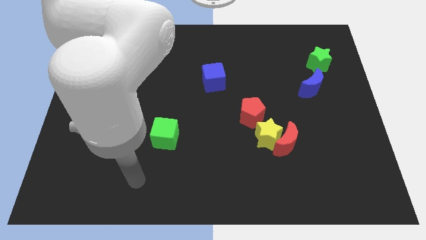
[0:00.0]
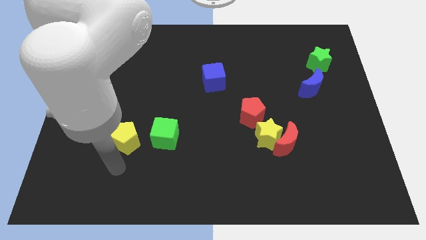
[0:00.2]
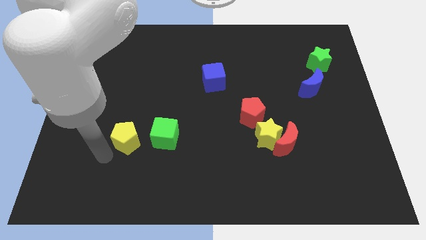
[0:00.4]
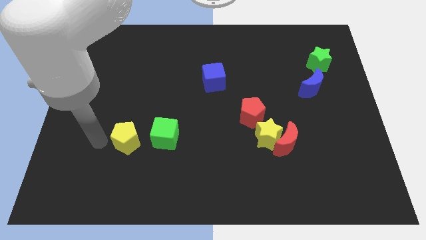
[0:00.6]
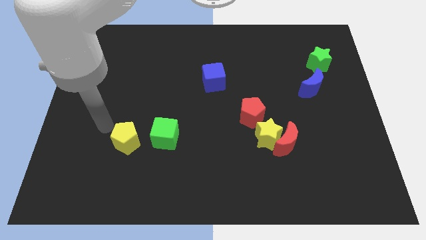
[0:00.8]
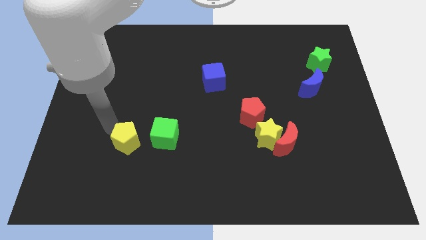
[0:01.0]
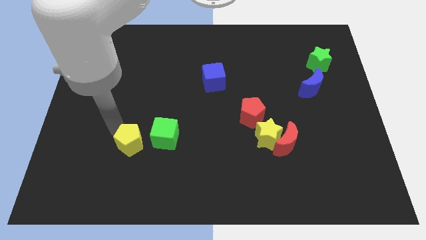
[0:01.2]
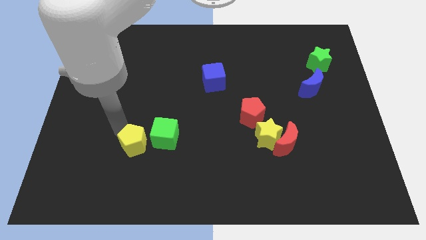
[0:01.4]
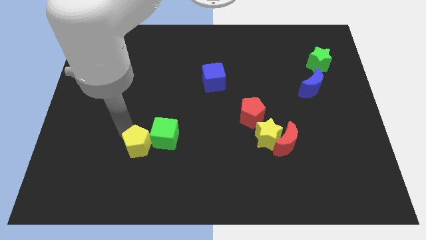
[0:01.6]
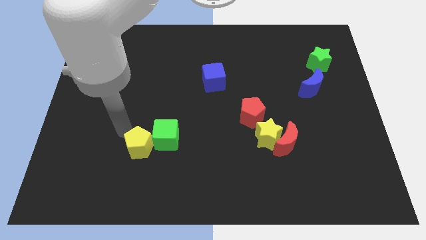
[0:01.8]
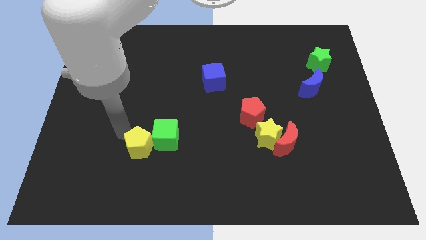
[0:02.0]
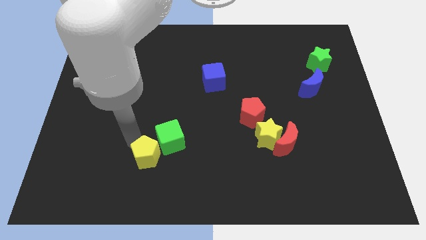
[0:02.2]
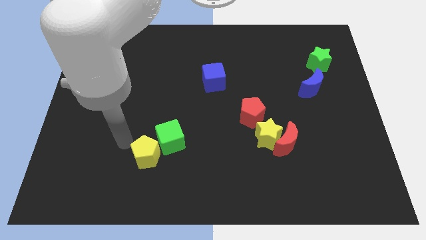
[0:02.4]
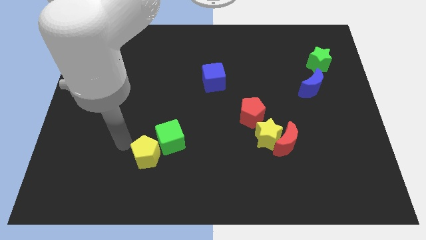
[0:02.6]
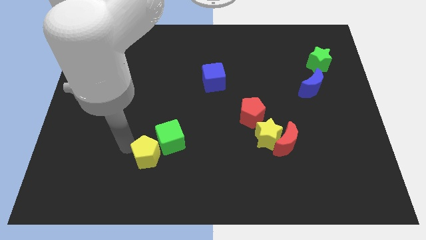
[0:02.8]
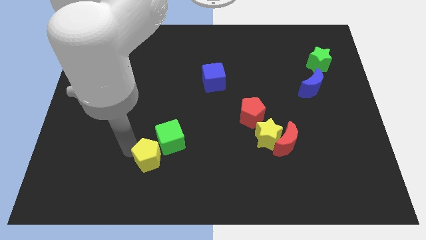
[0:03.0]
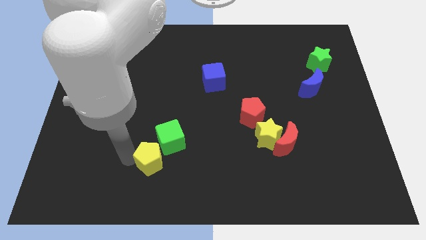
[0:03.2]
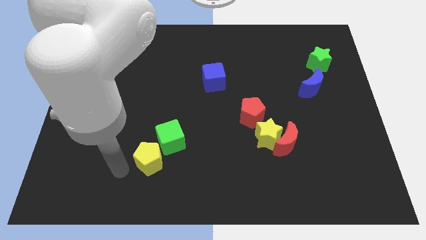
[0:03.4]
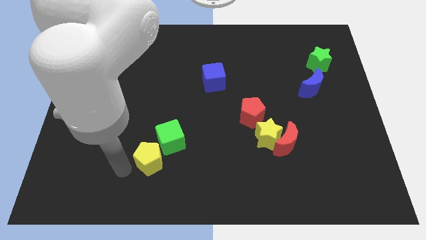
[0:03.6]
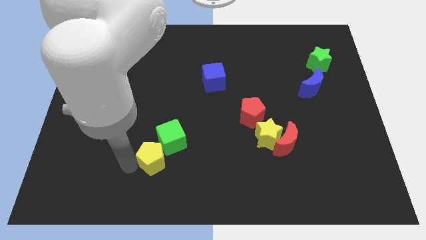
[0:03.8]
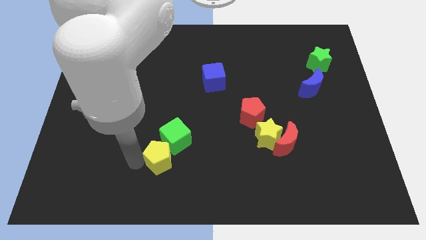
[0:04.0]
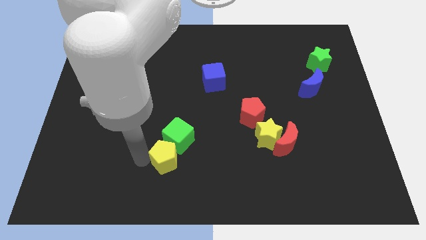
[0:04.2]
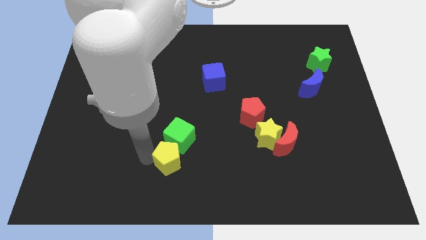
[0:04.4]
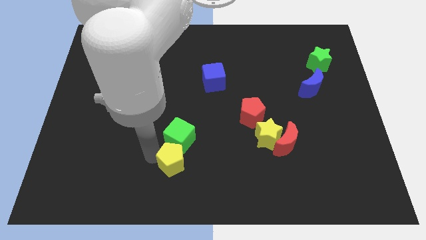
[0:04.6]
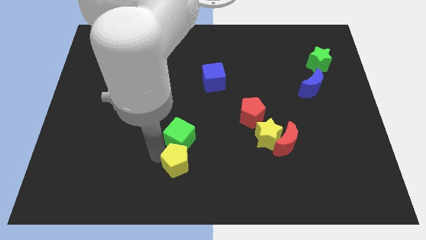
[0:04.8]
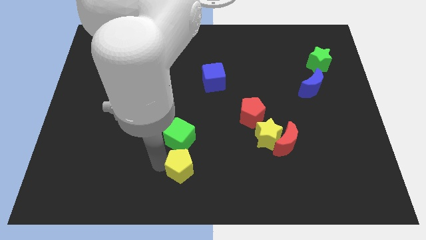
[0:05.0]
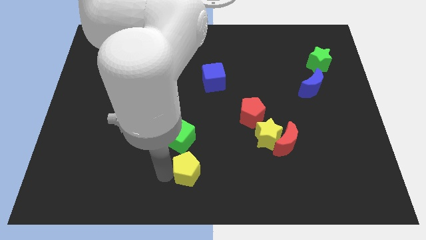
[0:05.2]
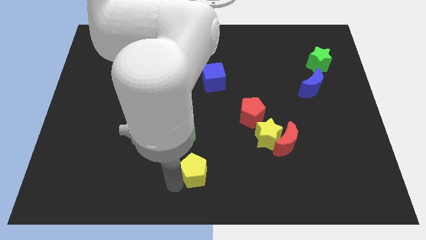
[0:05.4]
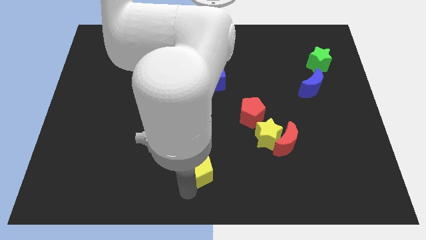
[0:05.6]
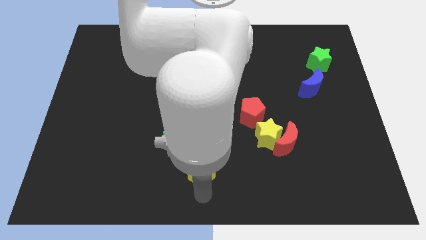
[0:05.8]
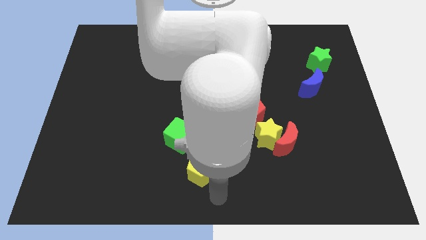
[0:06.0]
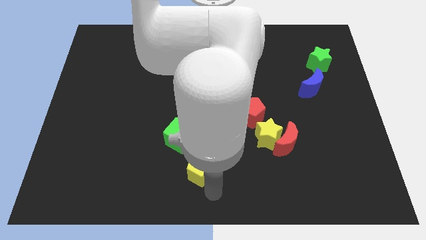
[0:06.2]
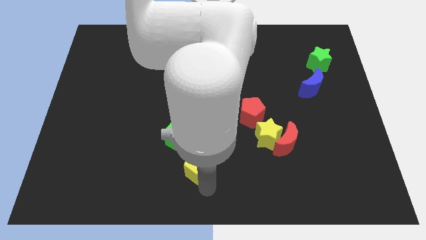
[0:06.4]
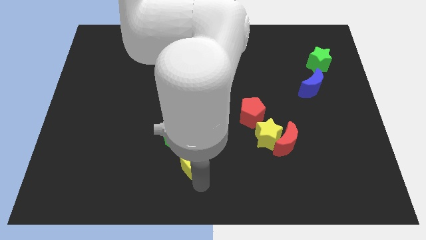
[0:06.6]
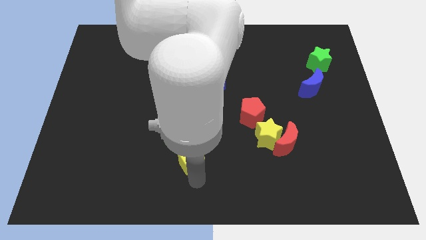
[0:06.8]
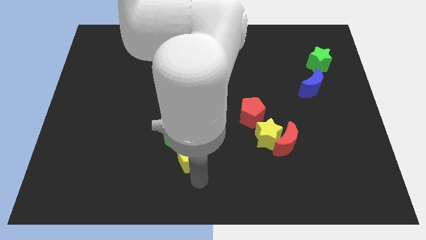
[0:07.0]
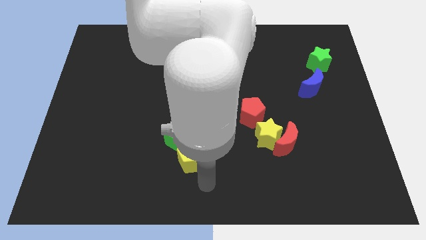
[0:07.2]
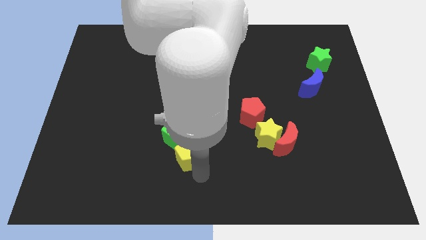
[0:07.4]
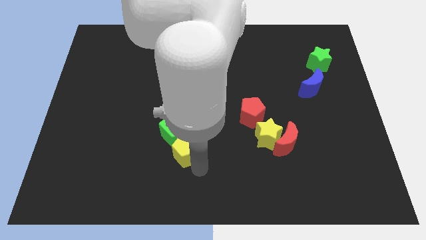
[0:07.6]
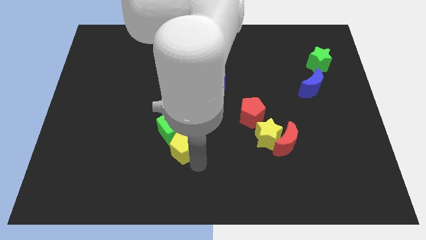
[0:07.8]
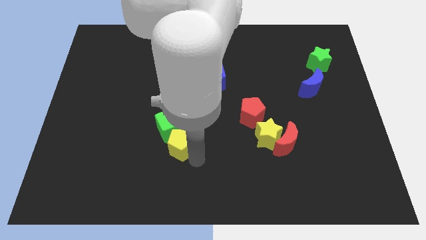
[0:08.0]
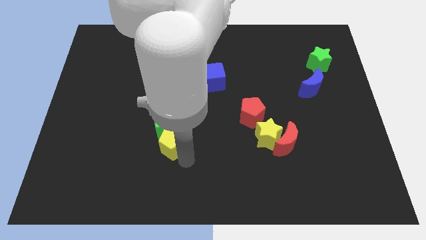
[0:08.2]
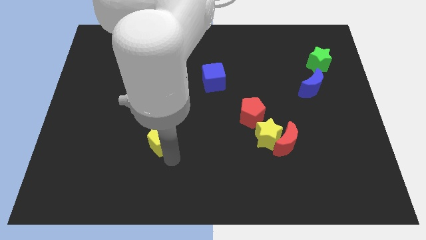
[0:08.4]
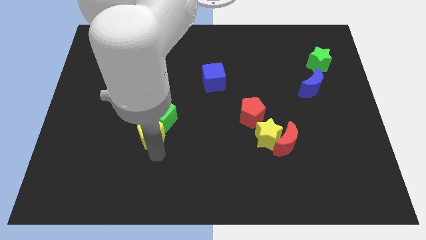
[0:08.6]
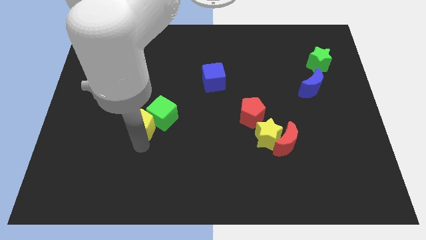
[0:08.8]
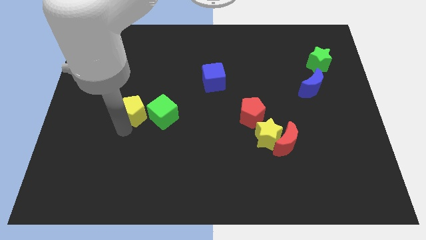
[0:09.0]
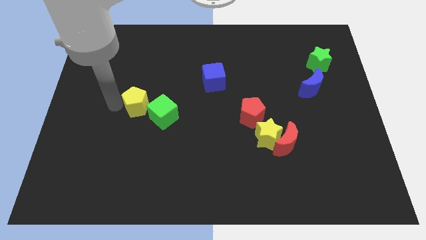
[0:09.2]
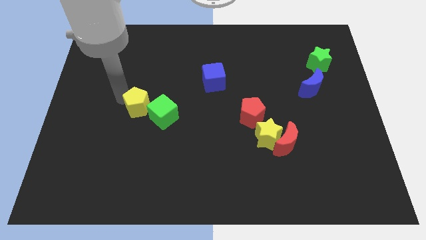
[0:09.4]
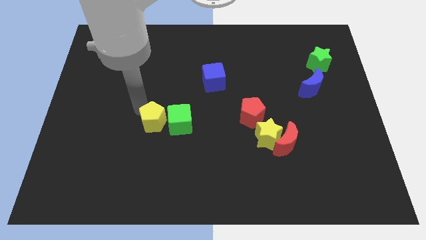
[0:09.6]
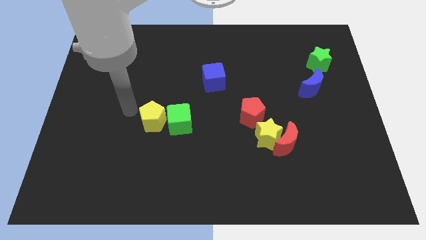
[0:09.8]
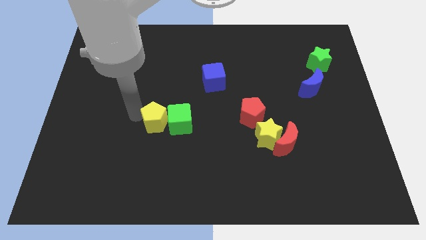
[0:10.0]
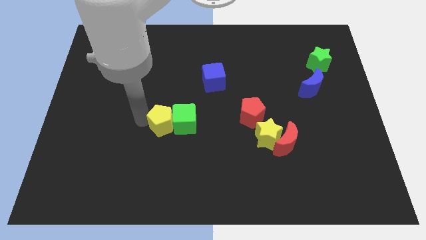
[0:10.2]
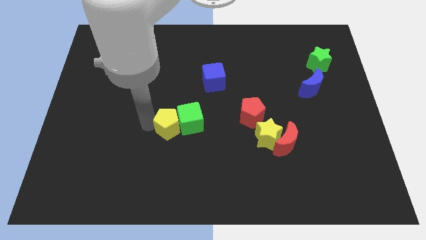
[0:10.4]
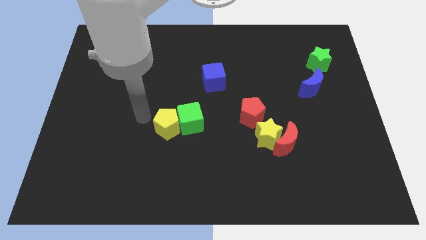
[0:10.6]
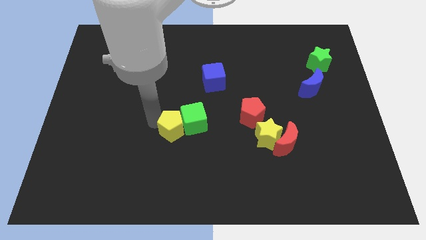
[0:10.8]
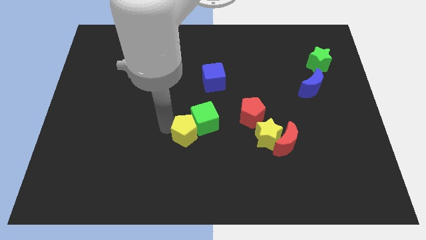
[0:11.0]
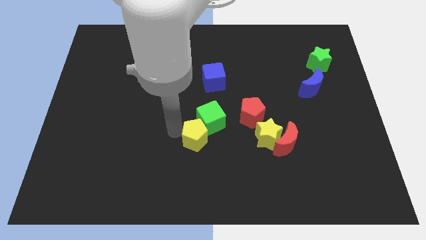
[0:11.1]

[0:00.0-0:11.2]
slide the yellow pentagon to the left of the yellow star

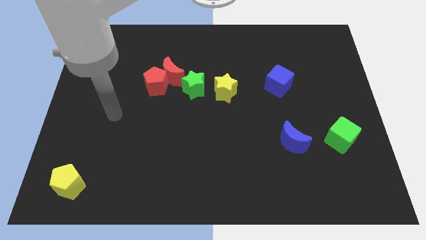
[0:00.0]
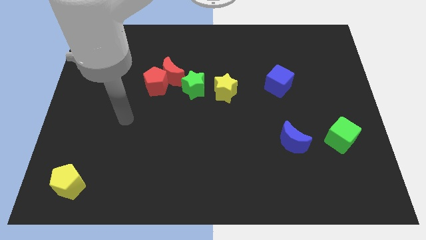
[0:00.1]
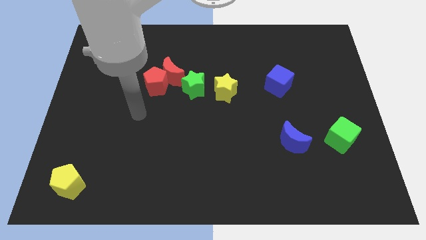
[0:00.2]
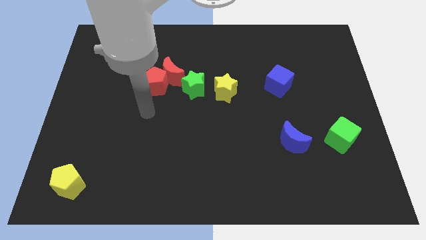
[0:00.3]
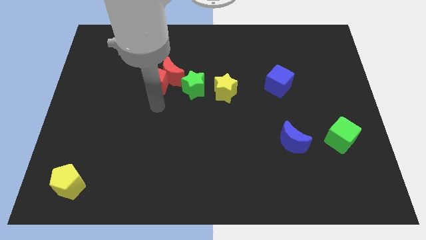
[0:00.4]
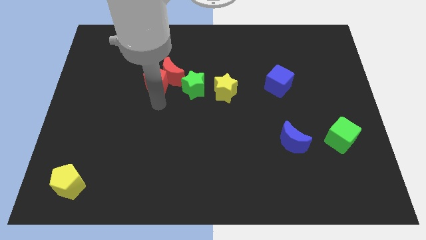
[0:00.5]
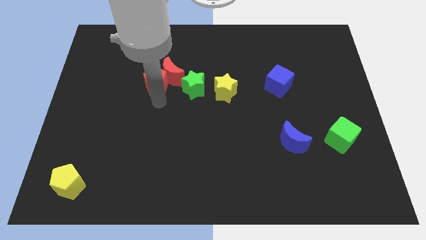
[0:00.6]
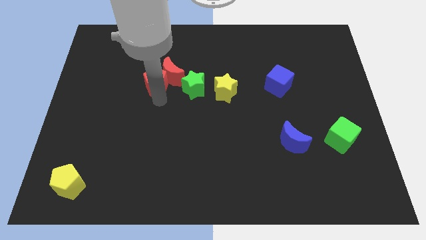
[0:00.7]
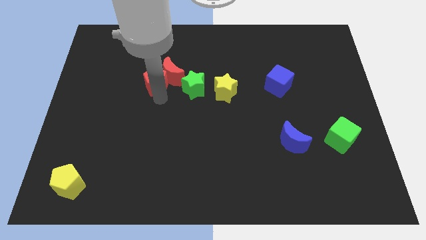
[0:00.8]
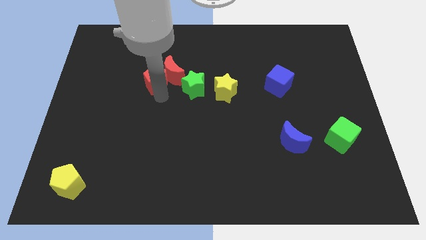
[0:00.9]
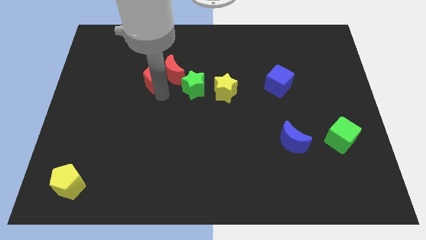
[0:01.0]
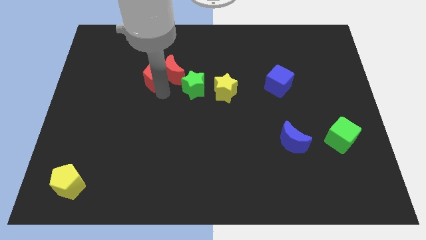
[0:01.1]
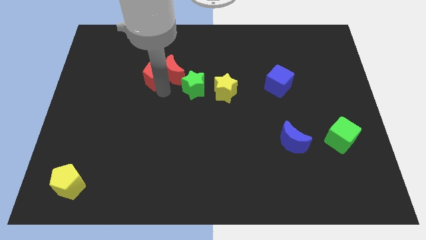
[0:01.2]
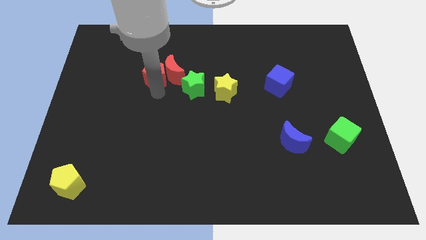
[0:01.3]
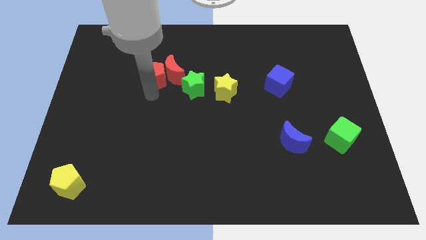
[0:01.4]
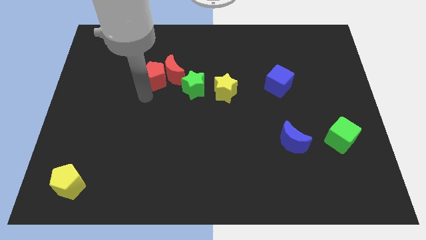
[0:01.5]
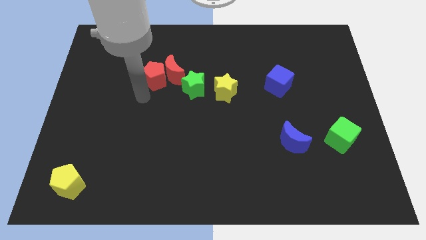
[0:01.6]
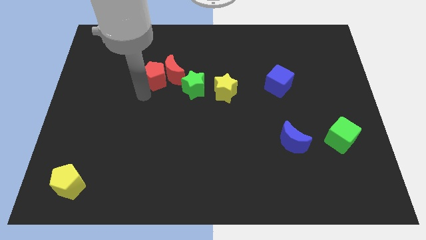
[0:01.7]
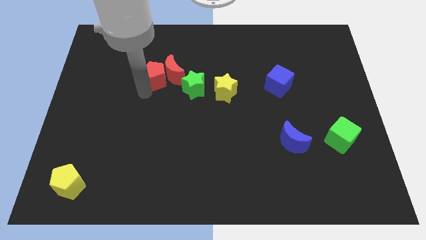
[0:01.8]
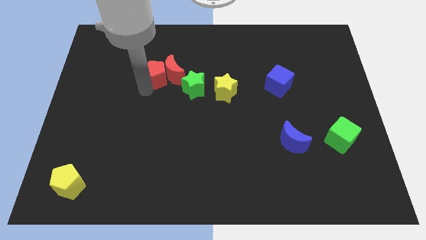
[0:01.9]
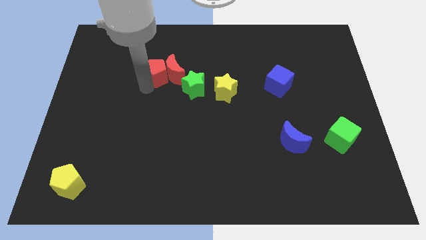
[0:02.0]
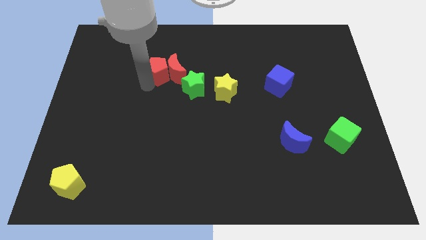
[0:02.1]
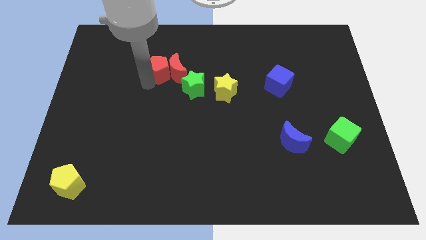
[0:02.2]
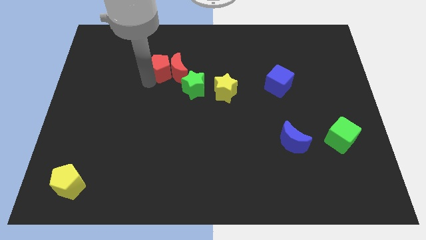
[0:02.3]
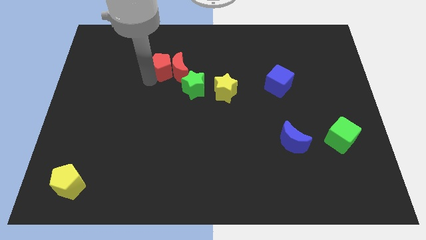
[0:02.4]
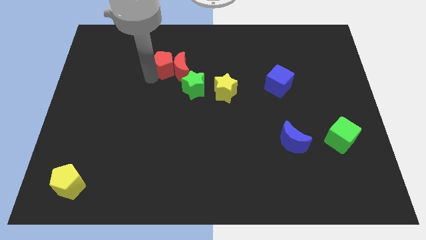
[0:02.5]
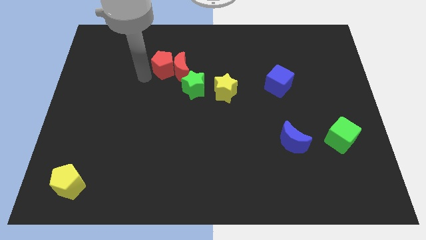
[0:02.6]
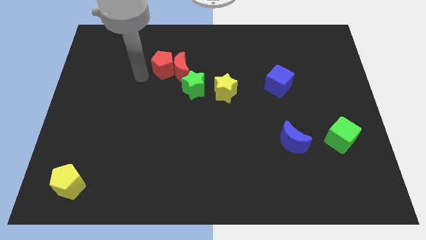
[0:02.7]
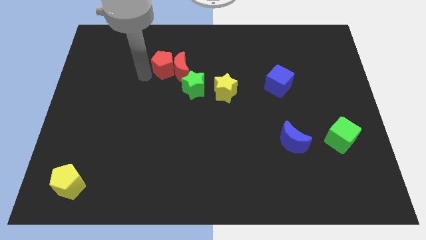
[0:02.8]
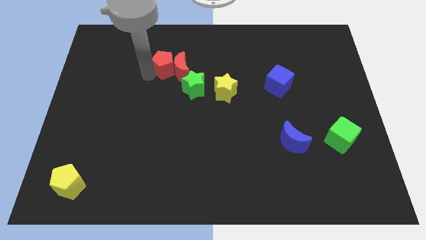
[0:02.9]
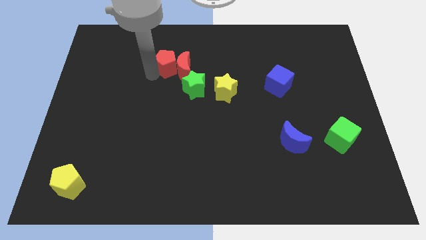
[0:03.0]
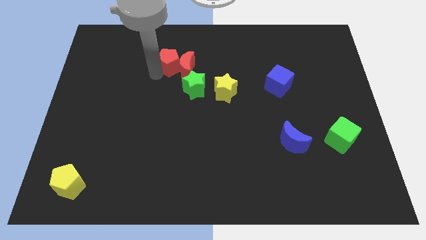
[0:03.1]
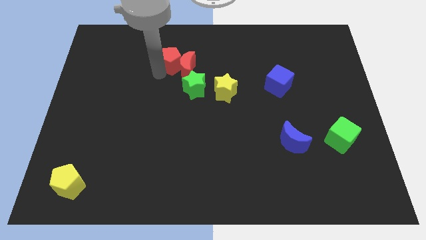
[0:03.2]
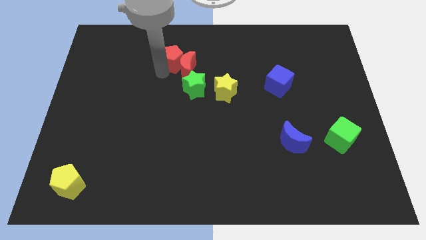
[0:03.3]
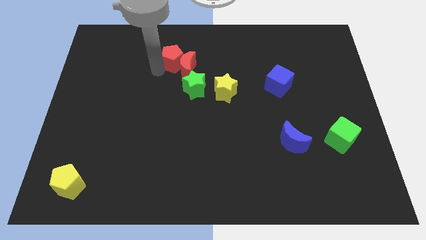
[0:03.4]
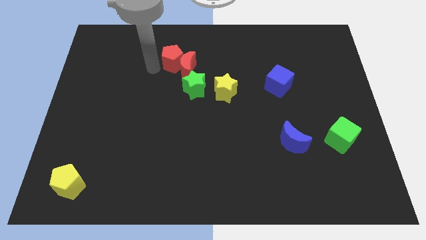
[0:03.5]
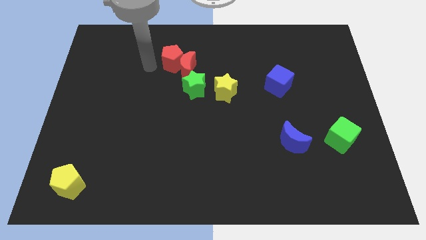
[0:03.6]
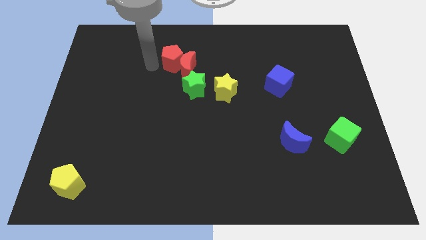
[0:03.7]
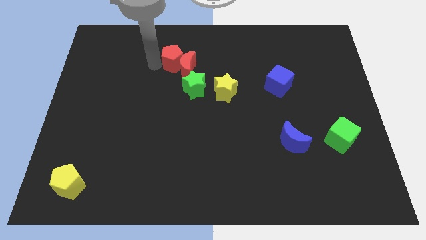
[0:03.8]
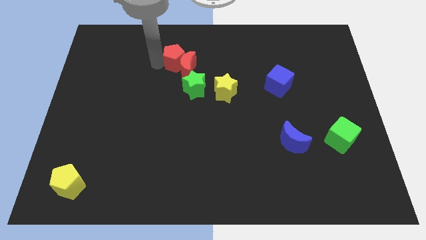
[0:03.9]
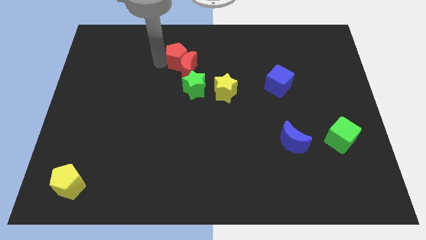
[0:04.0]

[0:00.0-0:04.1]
move the red pentagon to the top side of the green star
